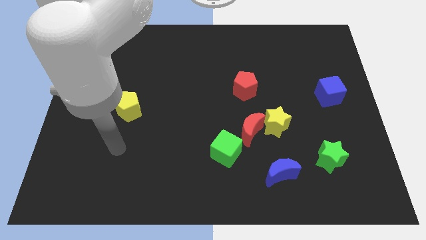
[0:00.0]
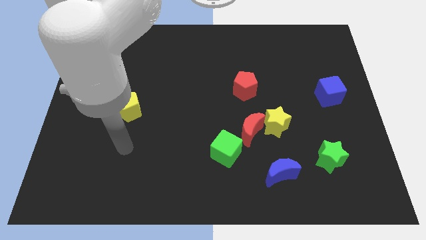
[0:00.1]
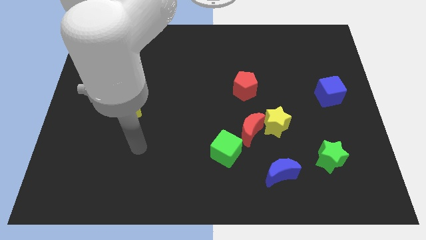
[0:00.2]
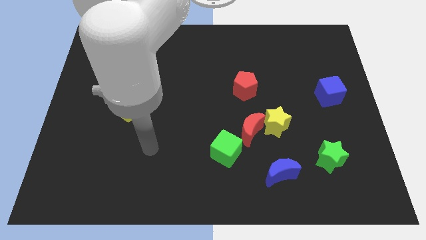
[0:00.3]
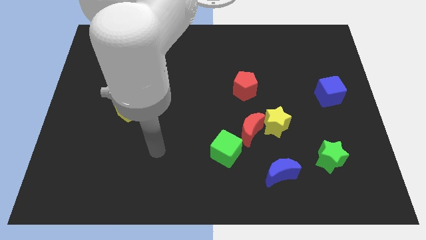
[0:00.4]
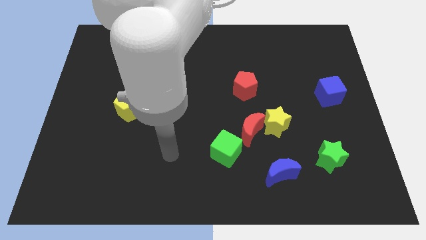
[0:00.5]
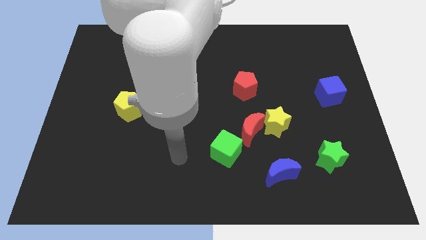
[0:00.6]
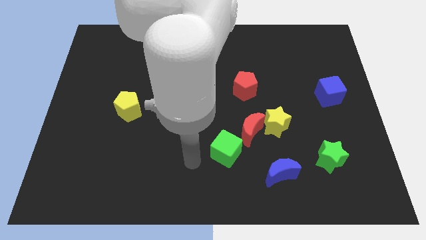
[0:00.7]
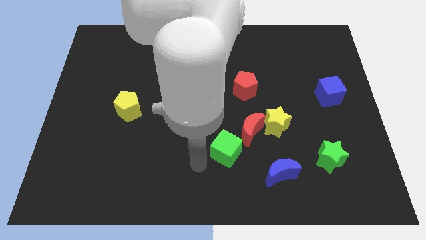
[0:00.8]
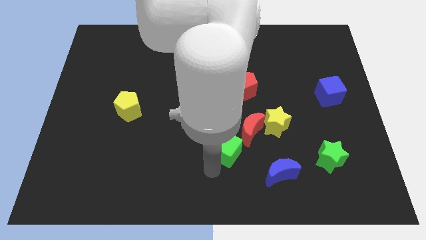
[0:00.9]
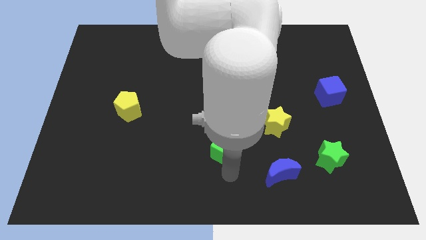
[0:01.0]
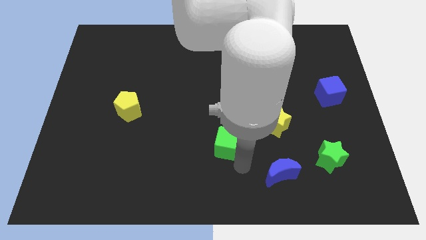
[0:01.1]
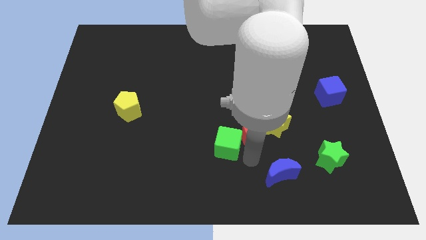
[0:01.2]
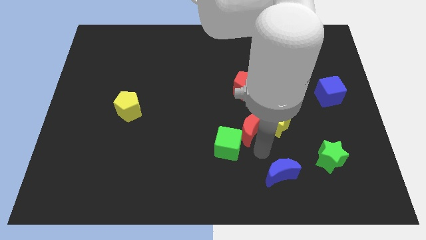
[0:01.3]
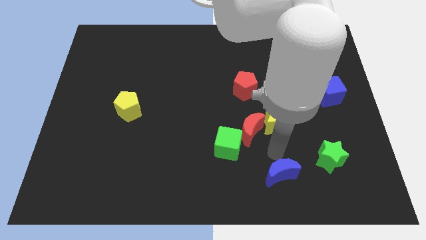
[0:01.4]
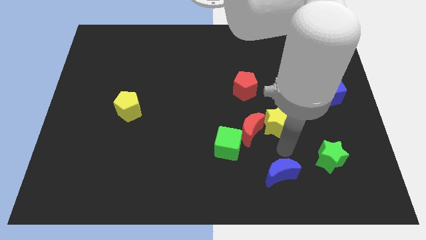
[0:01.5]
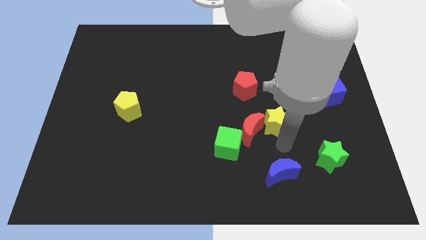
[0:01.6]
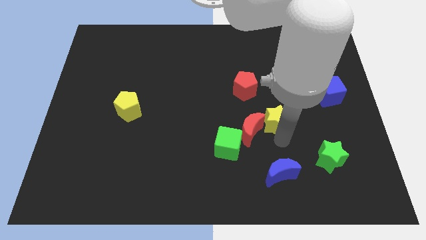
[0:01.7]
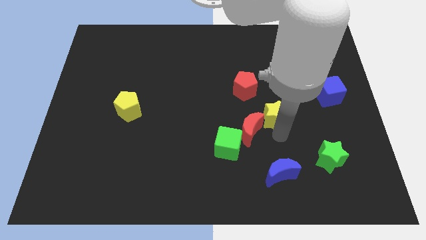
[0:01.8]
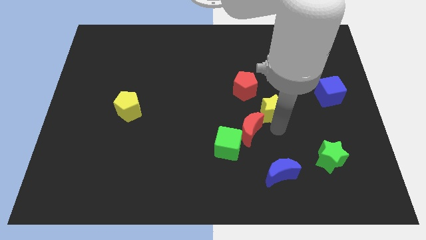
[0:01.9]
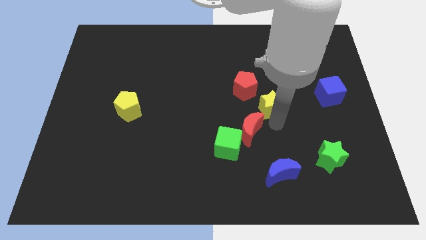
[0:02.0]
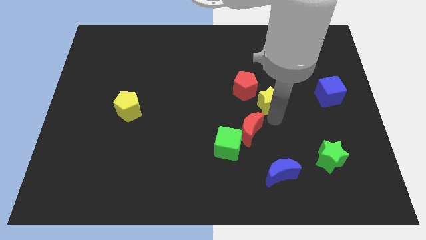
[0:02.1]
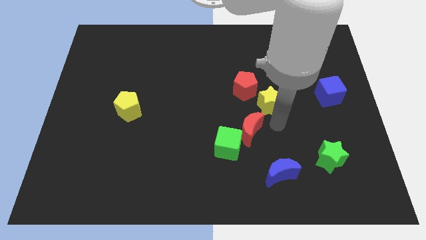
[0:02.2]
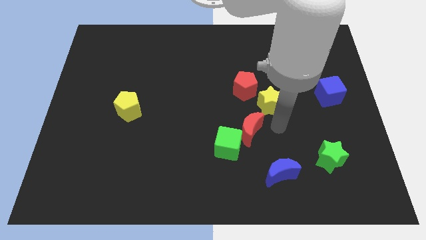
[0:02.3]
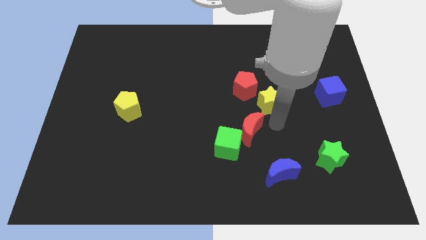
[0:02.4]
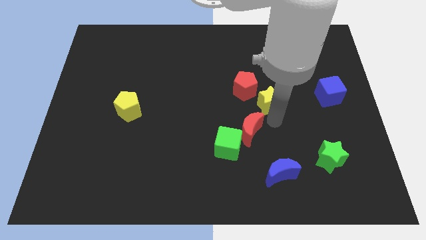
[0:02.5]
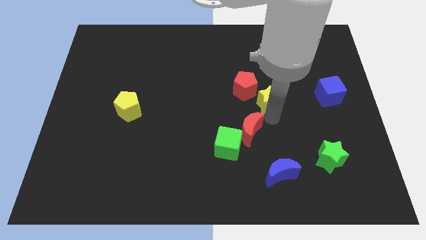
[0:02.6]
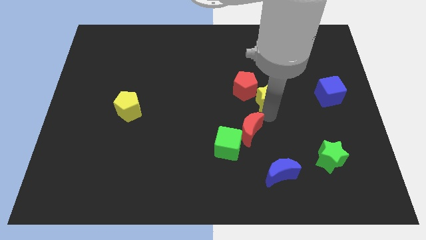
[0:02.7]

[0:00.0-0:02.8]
push the yellow star a bit up

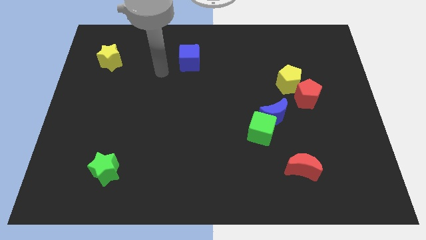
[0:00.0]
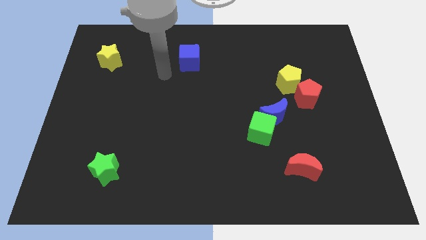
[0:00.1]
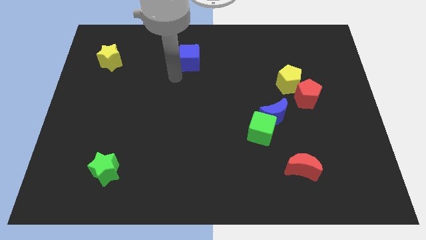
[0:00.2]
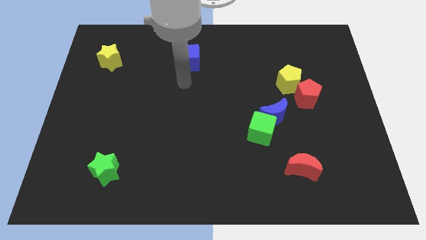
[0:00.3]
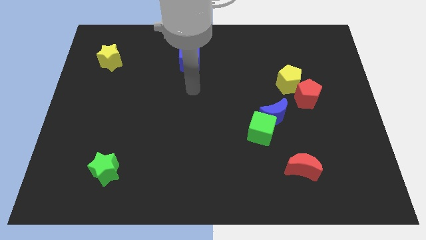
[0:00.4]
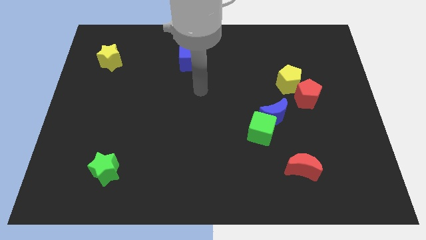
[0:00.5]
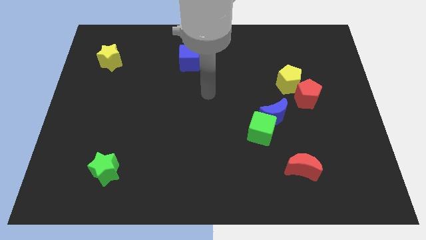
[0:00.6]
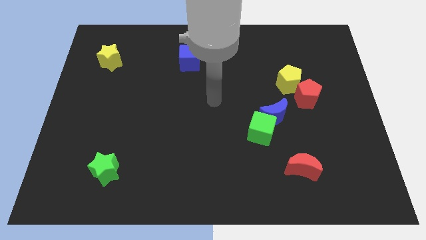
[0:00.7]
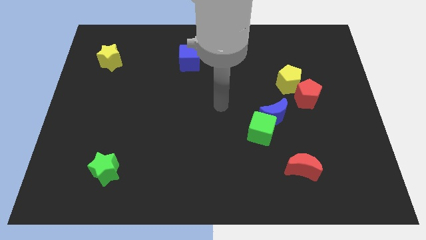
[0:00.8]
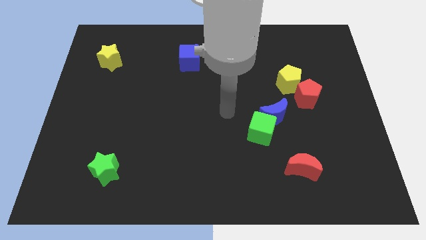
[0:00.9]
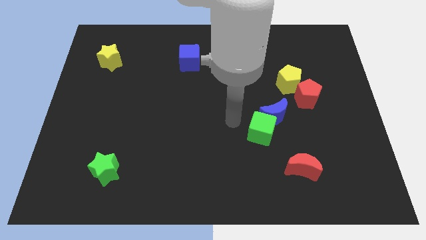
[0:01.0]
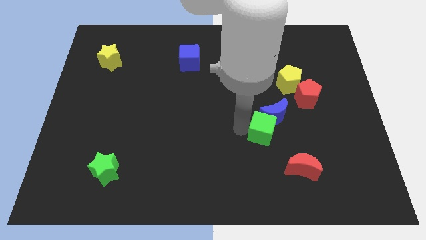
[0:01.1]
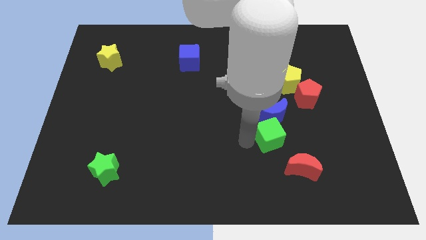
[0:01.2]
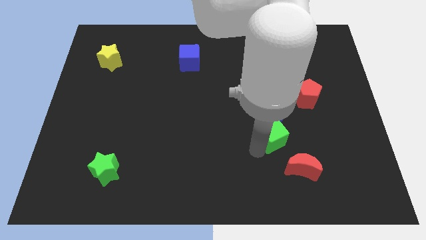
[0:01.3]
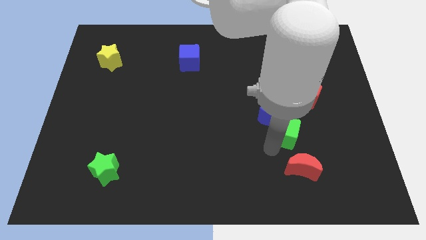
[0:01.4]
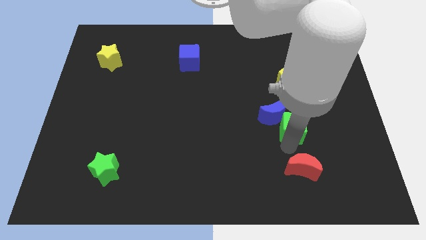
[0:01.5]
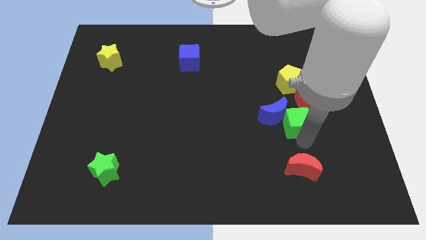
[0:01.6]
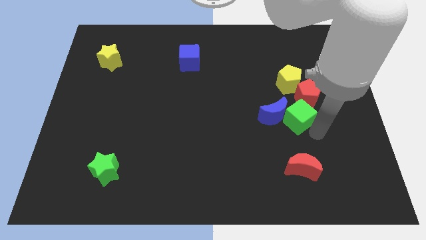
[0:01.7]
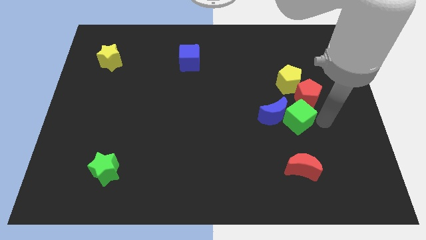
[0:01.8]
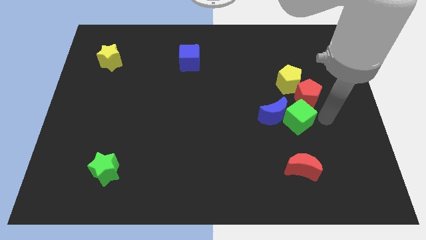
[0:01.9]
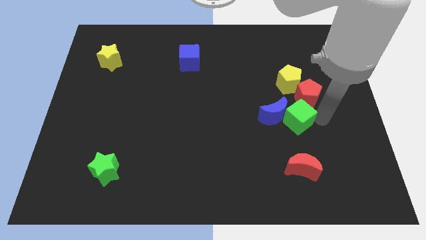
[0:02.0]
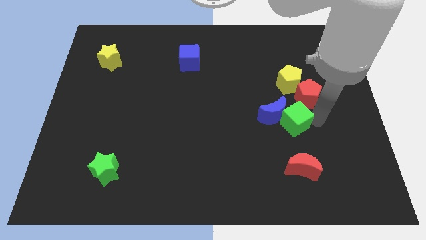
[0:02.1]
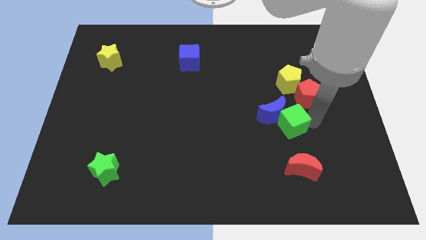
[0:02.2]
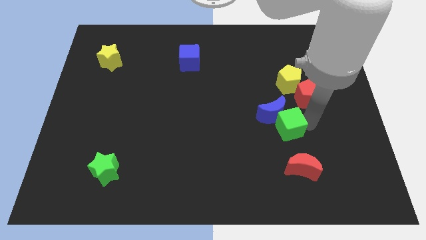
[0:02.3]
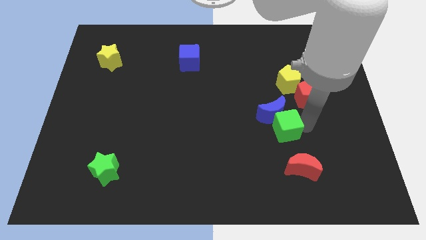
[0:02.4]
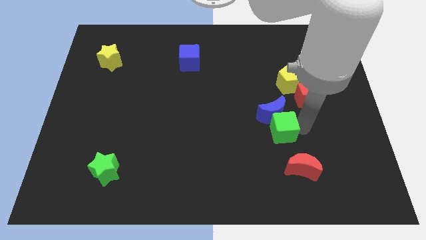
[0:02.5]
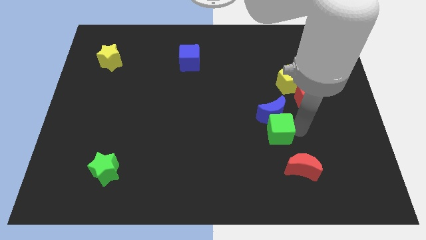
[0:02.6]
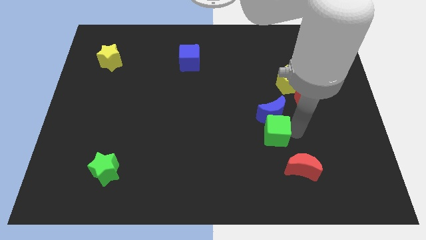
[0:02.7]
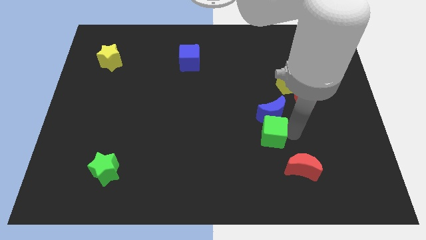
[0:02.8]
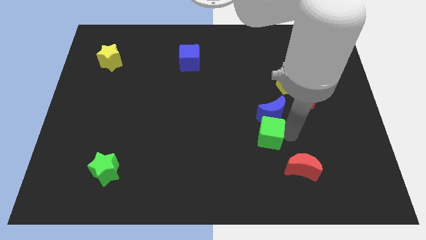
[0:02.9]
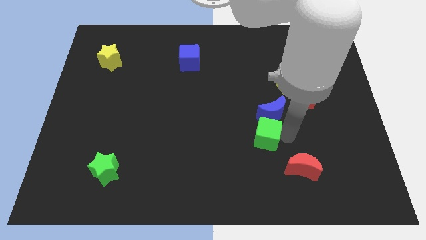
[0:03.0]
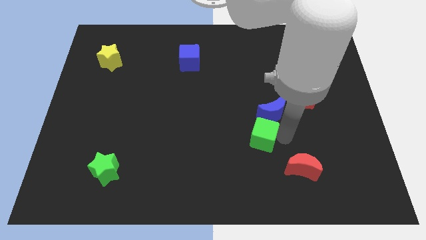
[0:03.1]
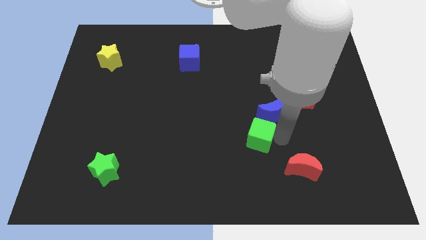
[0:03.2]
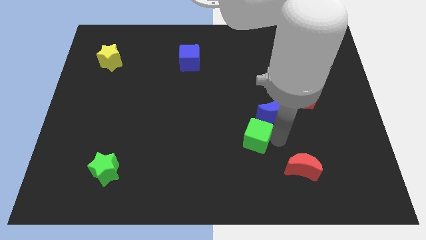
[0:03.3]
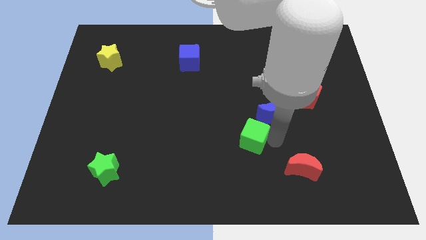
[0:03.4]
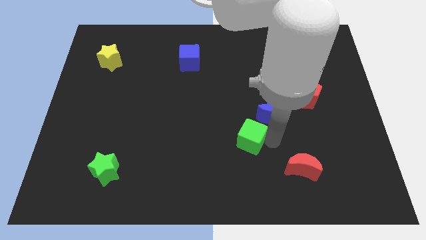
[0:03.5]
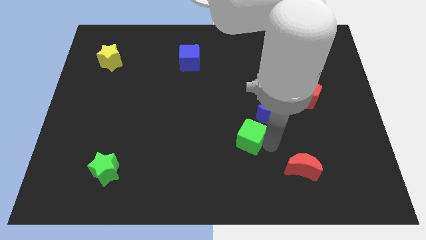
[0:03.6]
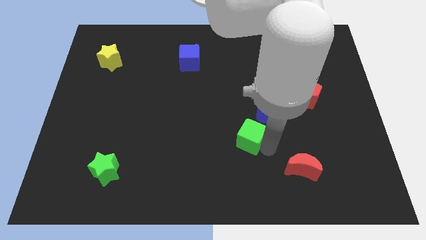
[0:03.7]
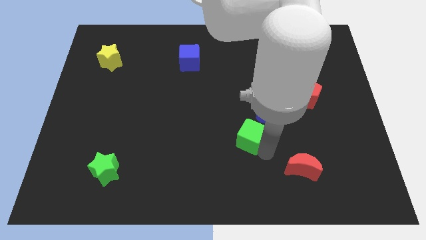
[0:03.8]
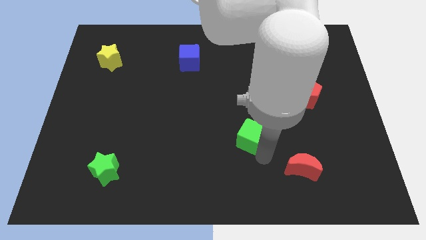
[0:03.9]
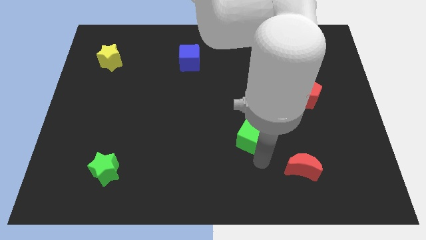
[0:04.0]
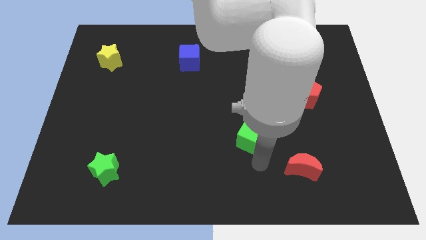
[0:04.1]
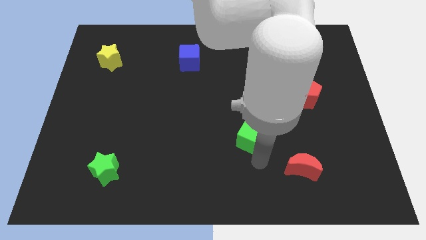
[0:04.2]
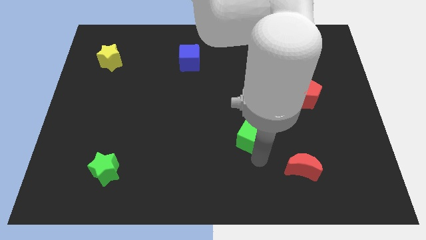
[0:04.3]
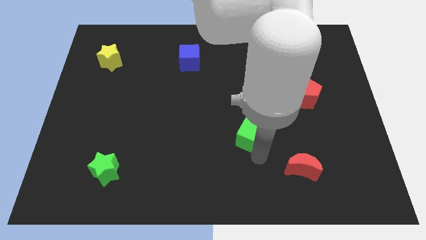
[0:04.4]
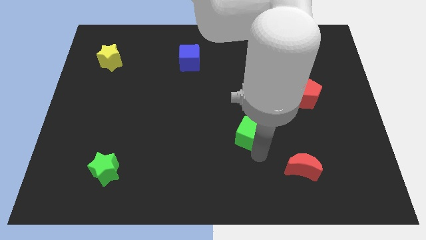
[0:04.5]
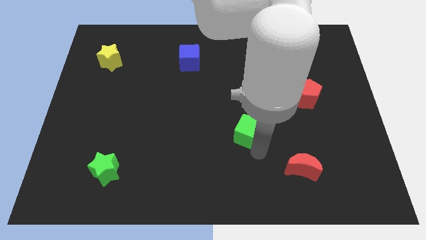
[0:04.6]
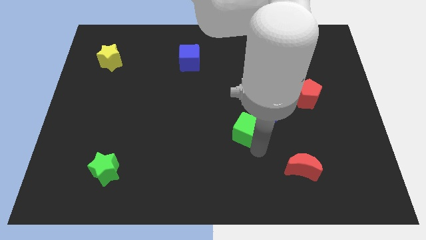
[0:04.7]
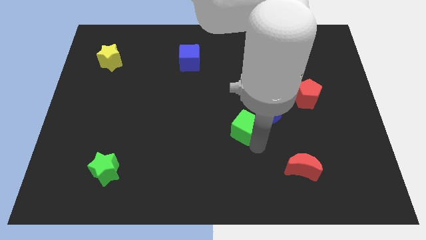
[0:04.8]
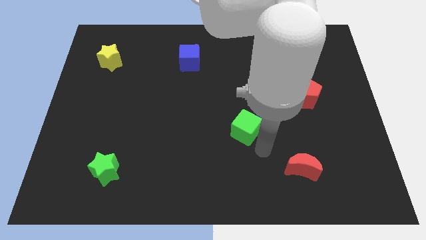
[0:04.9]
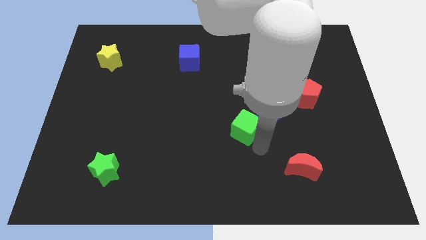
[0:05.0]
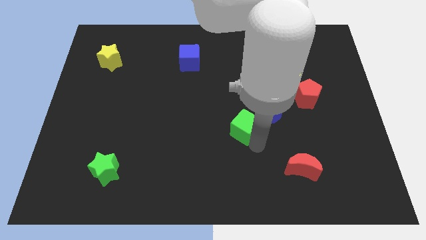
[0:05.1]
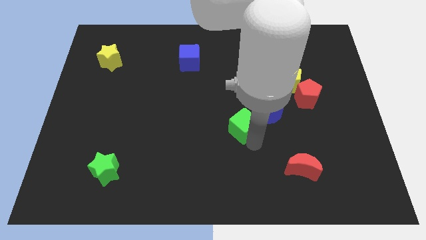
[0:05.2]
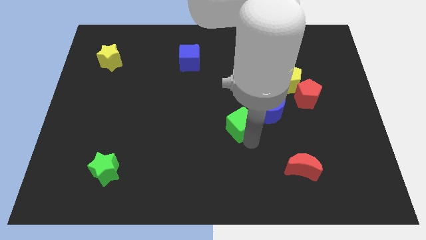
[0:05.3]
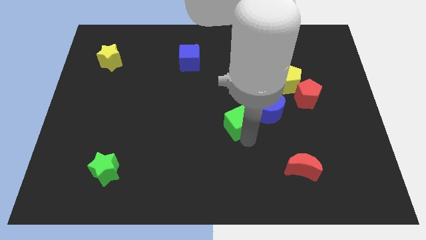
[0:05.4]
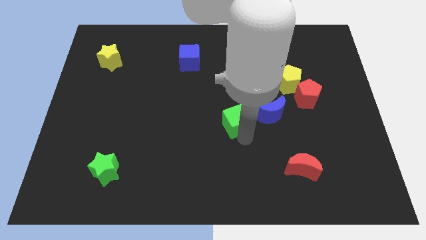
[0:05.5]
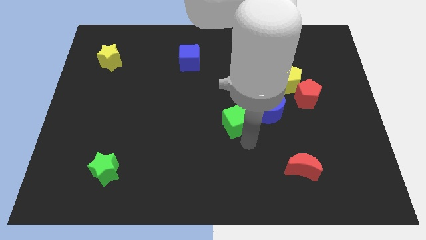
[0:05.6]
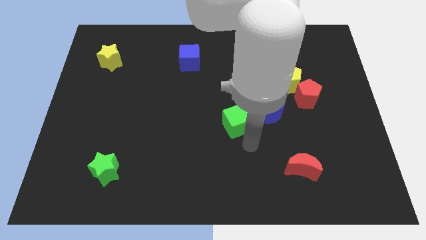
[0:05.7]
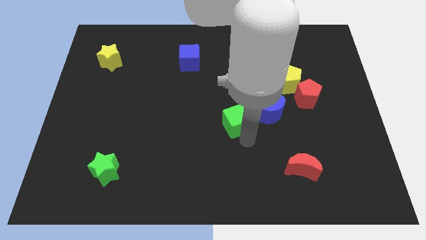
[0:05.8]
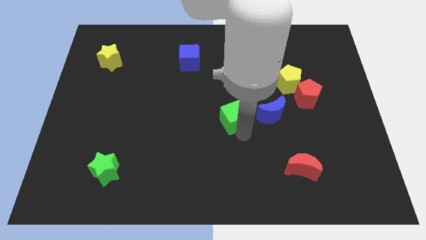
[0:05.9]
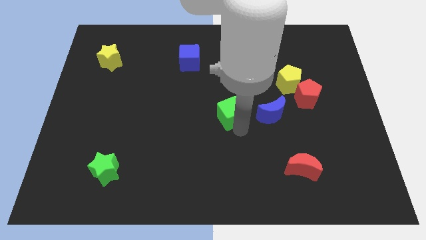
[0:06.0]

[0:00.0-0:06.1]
slide the green cube slightly upwards and to the left
